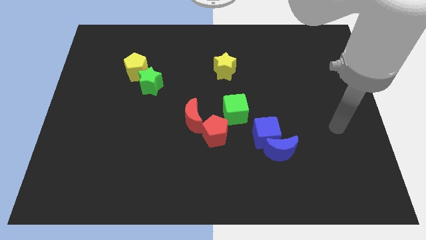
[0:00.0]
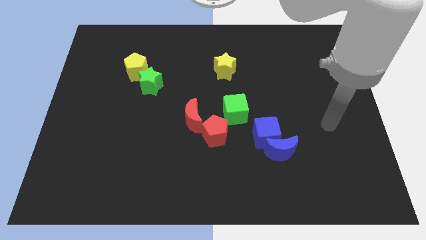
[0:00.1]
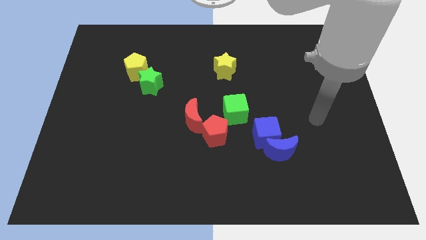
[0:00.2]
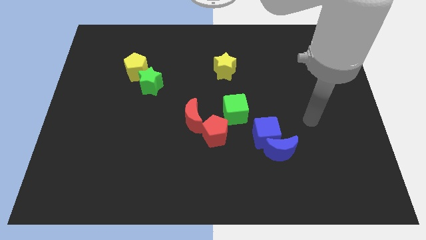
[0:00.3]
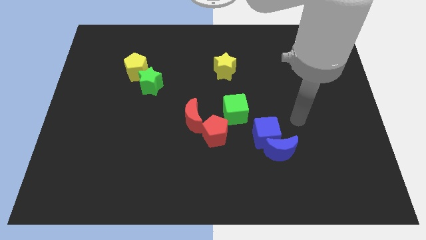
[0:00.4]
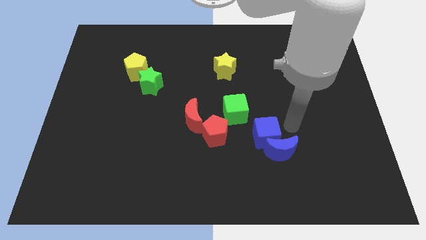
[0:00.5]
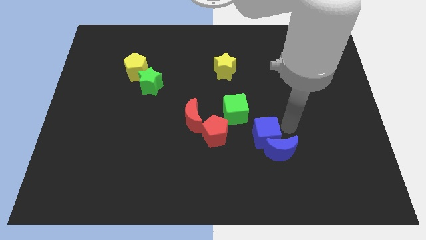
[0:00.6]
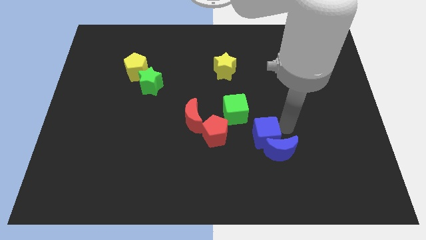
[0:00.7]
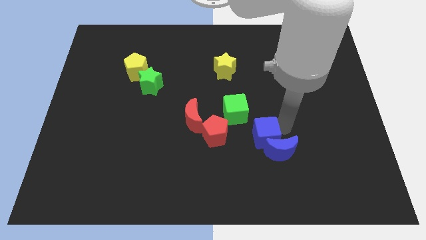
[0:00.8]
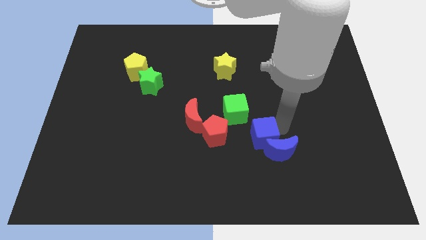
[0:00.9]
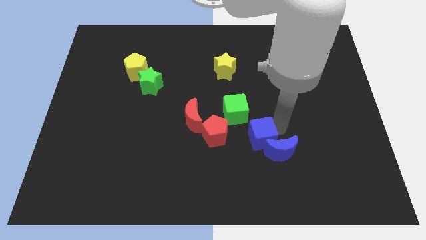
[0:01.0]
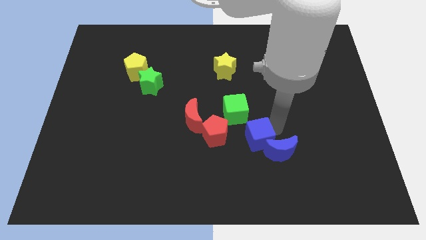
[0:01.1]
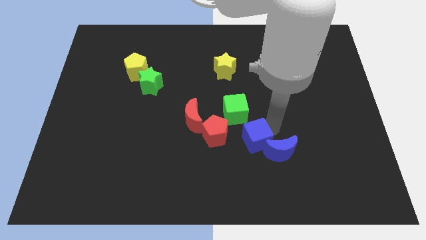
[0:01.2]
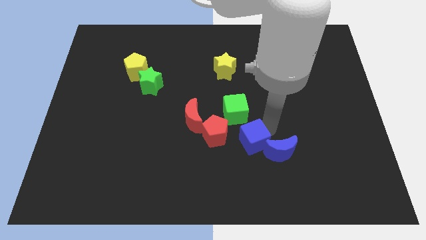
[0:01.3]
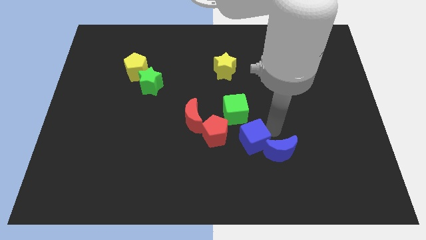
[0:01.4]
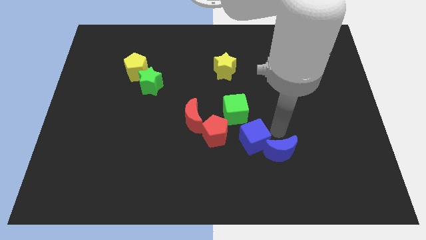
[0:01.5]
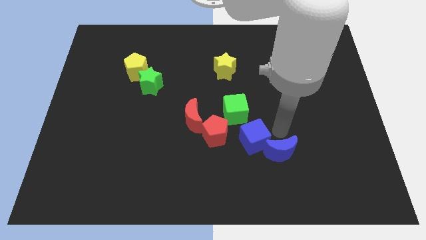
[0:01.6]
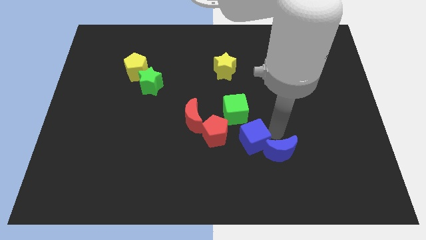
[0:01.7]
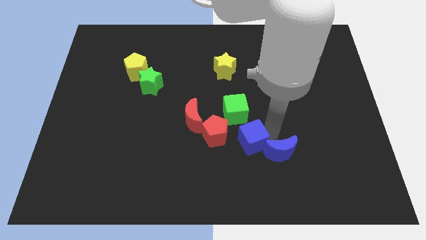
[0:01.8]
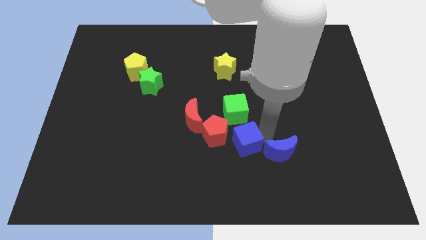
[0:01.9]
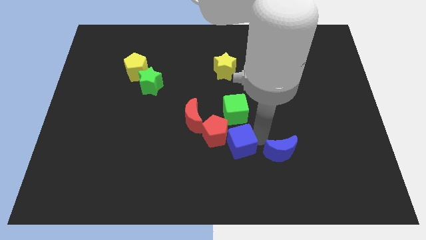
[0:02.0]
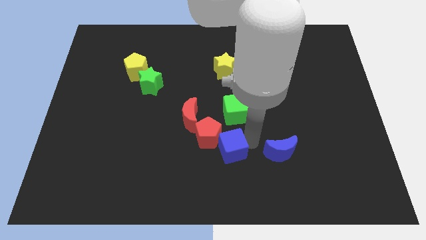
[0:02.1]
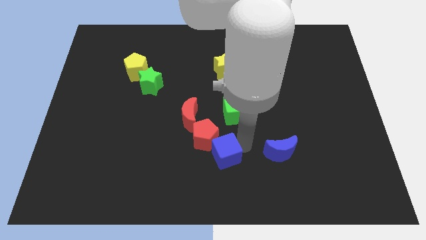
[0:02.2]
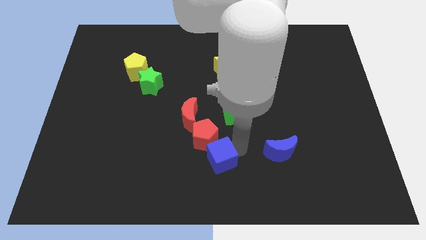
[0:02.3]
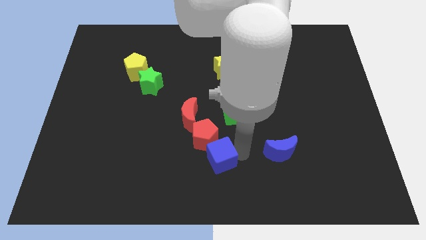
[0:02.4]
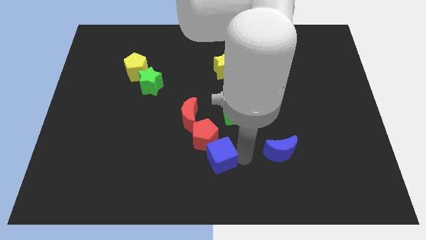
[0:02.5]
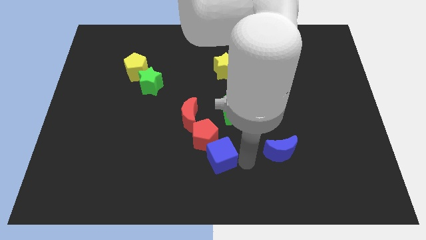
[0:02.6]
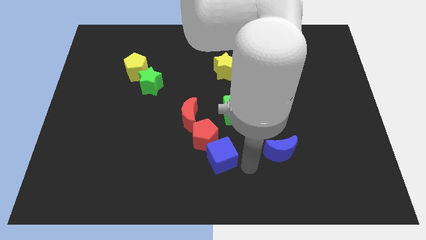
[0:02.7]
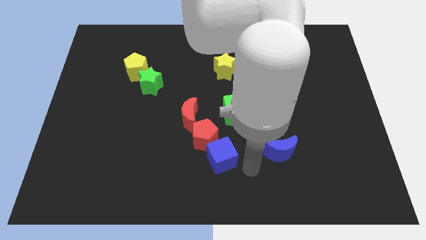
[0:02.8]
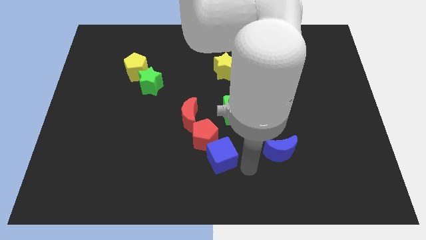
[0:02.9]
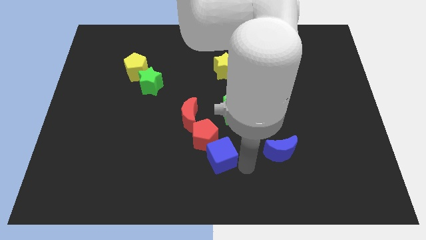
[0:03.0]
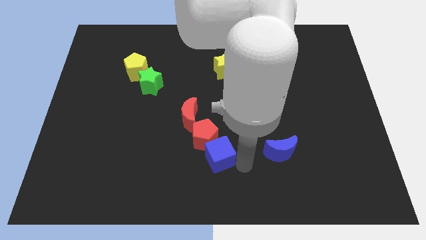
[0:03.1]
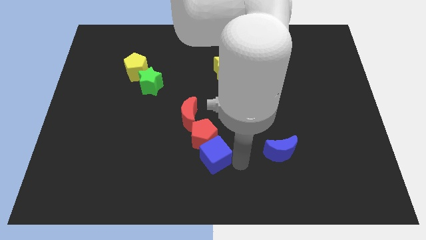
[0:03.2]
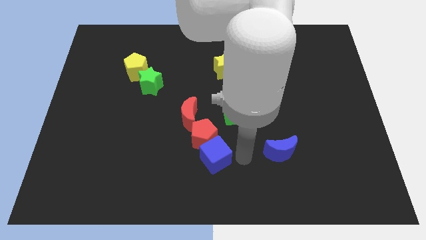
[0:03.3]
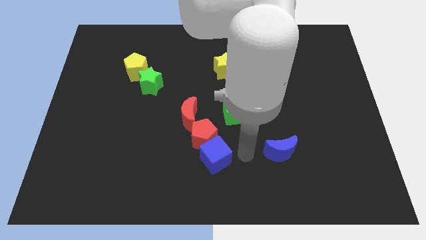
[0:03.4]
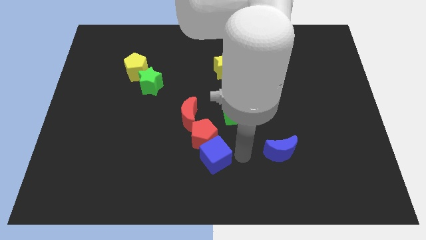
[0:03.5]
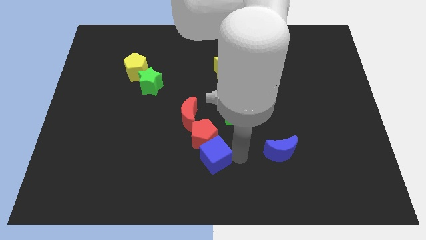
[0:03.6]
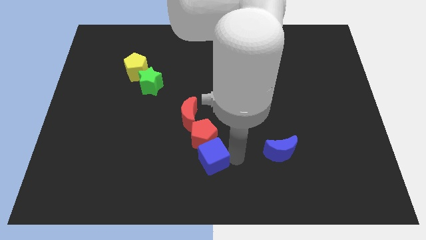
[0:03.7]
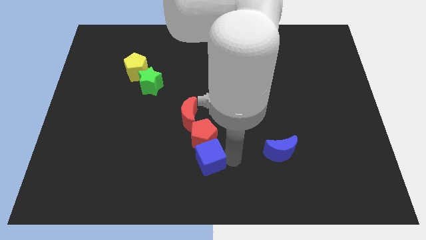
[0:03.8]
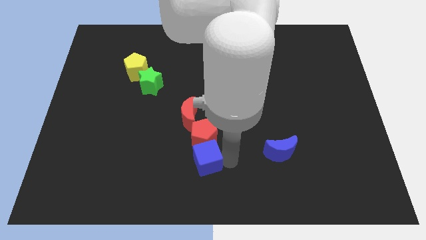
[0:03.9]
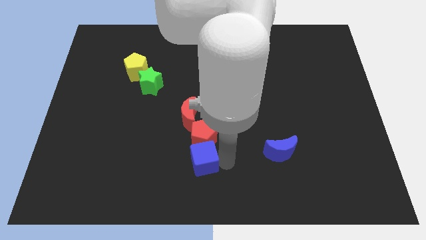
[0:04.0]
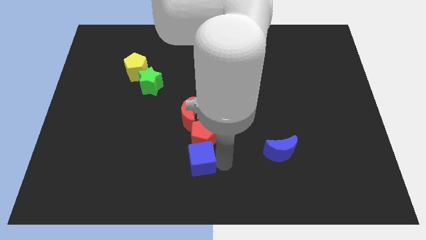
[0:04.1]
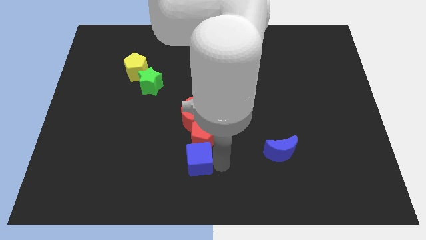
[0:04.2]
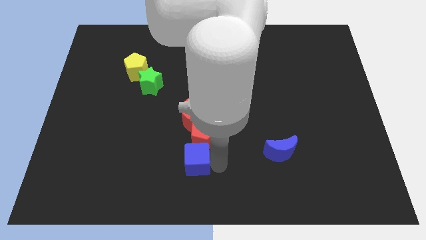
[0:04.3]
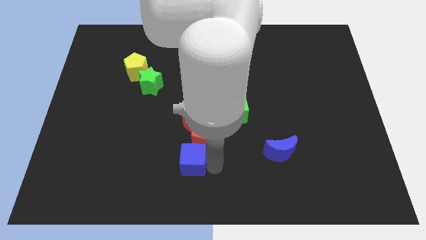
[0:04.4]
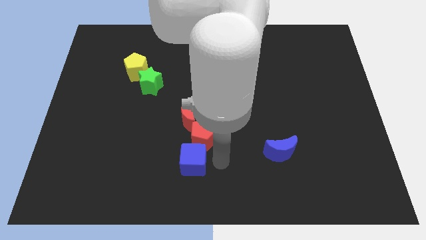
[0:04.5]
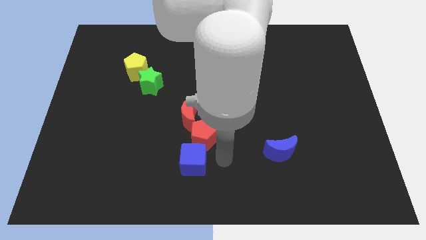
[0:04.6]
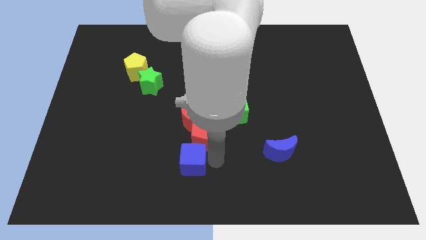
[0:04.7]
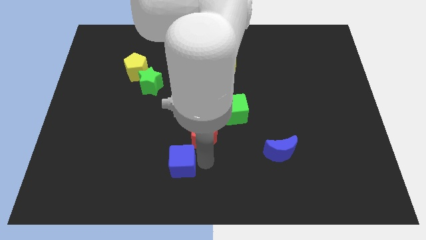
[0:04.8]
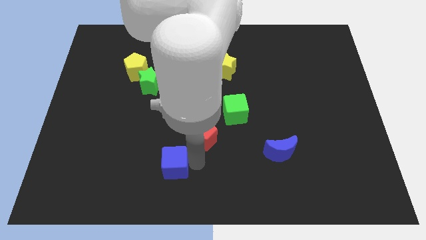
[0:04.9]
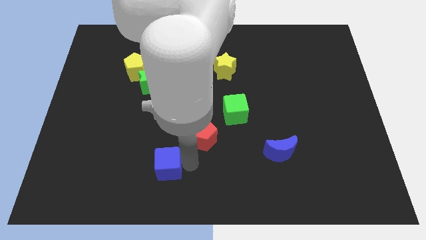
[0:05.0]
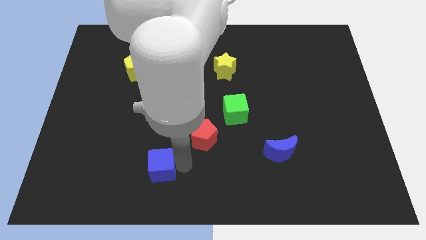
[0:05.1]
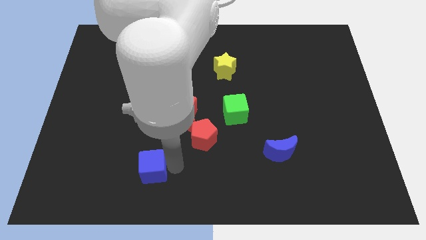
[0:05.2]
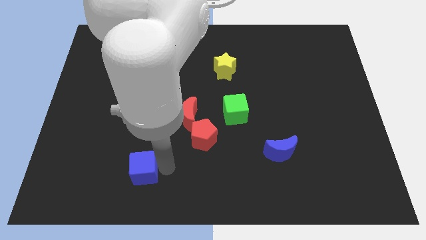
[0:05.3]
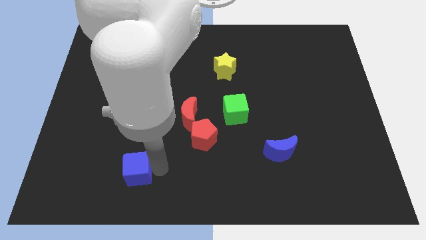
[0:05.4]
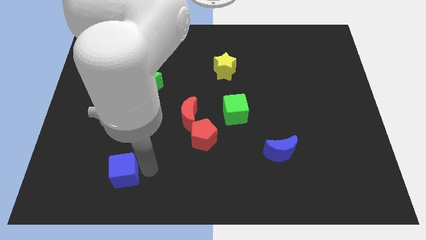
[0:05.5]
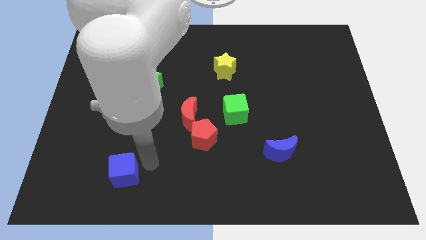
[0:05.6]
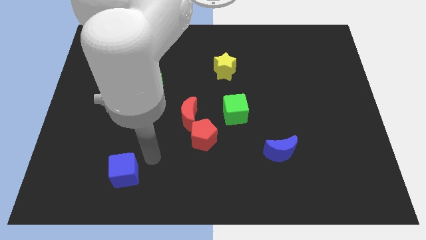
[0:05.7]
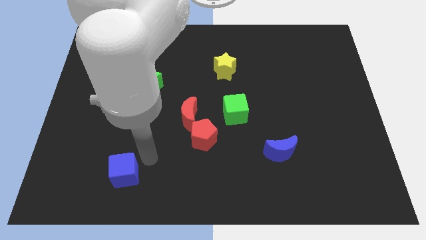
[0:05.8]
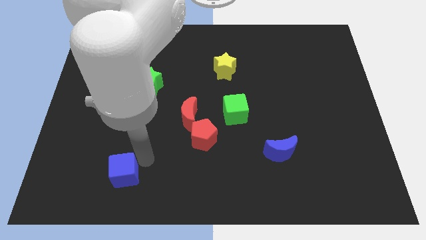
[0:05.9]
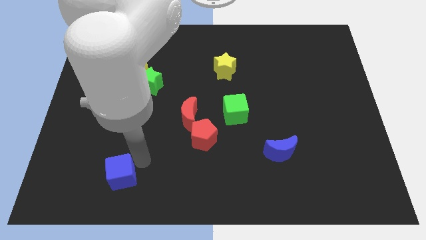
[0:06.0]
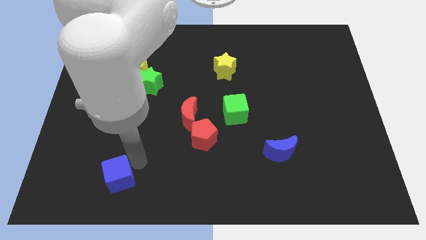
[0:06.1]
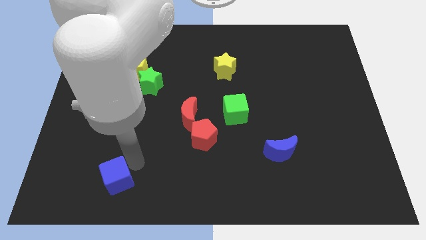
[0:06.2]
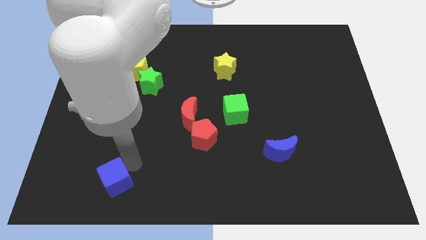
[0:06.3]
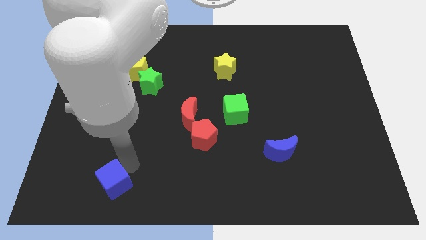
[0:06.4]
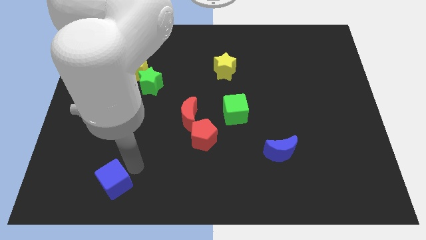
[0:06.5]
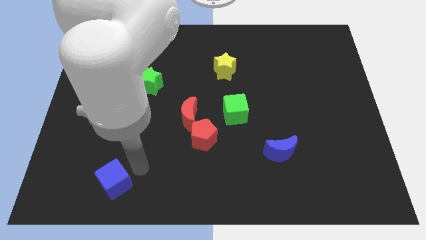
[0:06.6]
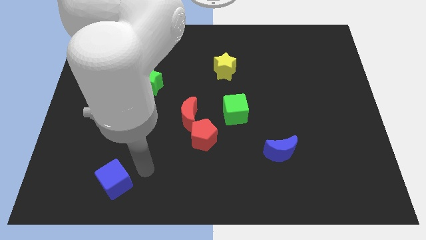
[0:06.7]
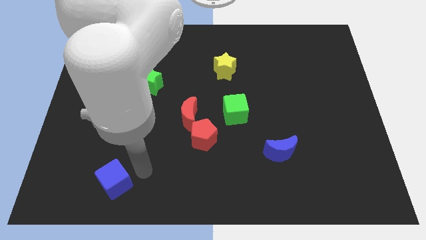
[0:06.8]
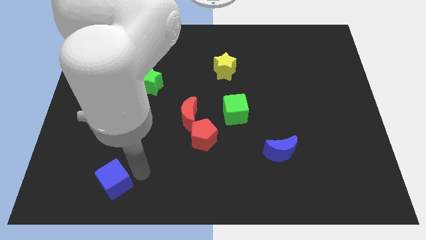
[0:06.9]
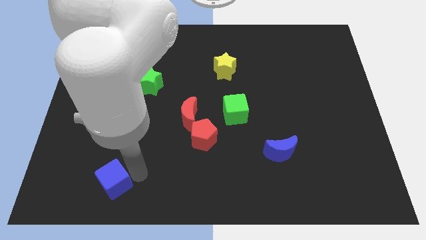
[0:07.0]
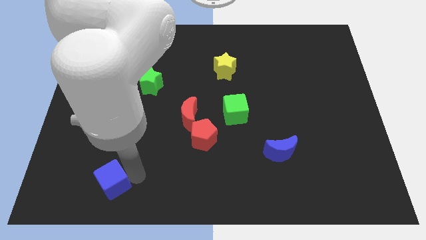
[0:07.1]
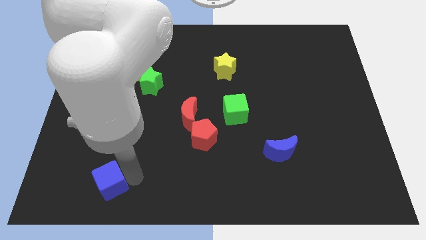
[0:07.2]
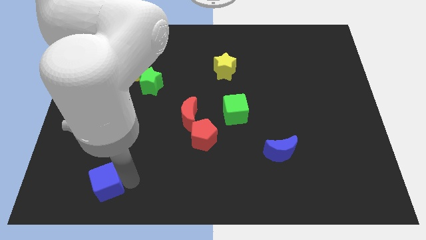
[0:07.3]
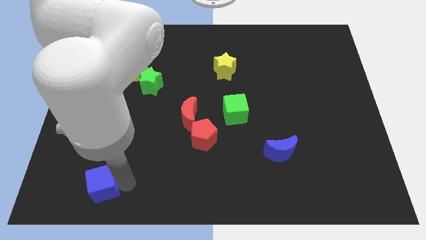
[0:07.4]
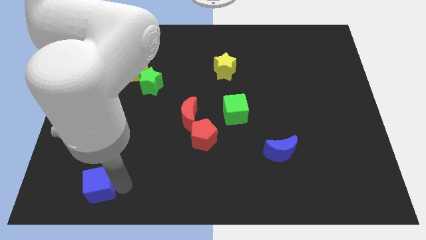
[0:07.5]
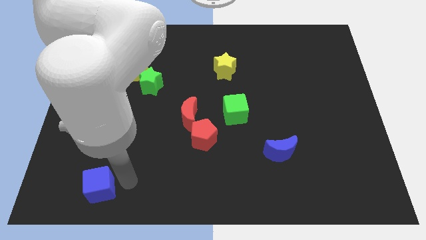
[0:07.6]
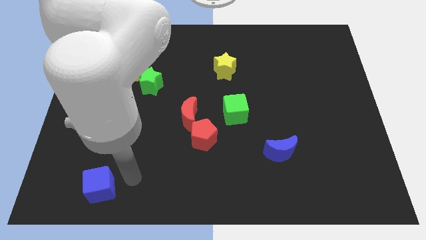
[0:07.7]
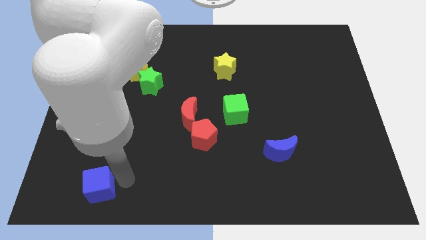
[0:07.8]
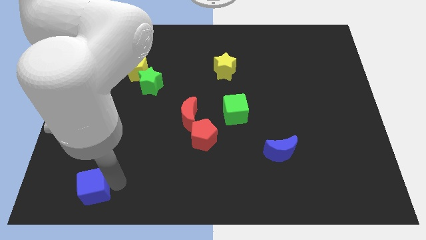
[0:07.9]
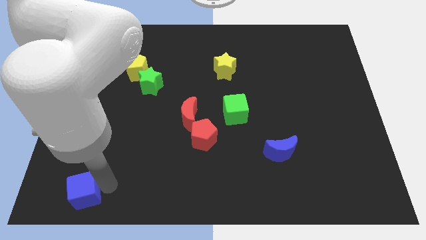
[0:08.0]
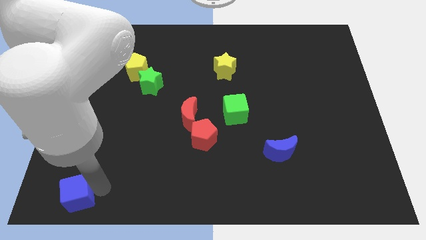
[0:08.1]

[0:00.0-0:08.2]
move the blue cube to the bottom left of the board
